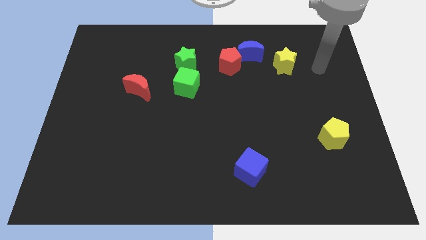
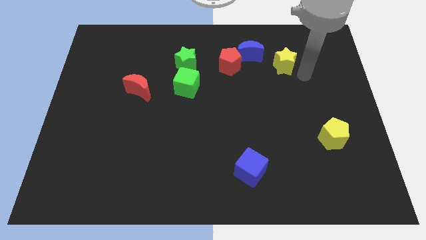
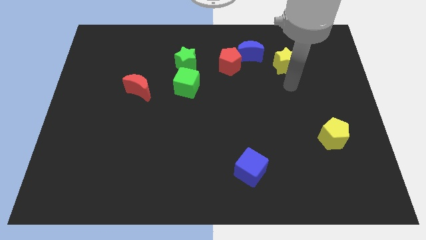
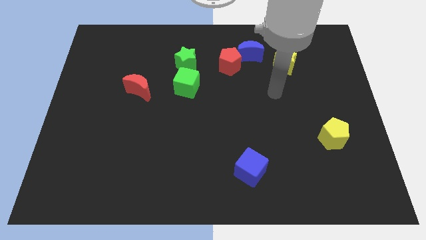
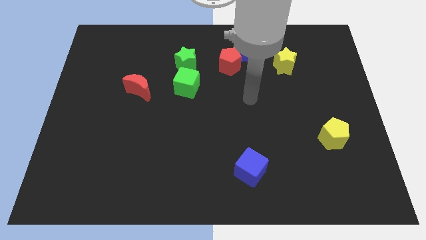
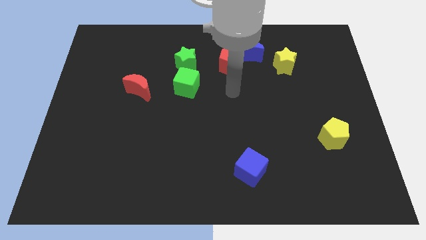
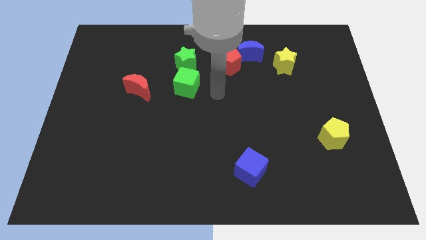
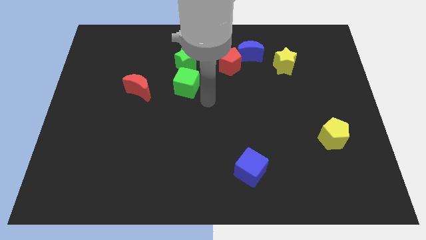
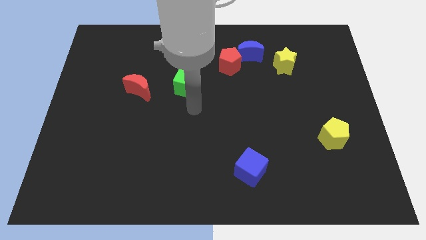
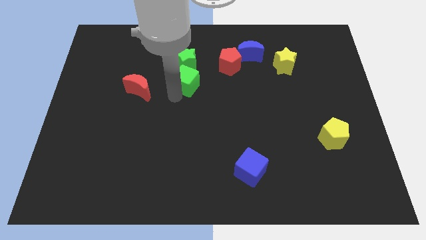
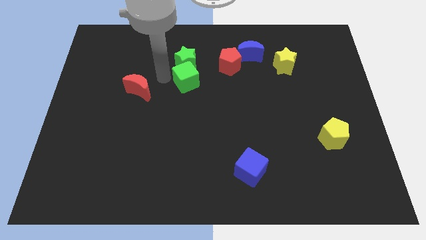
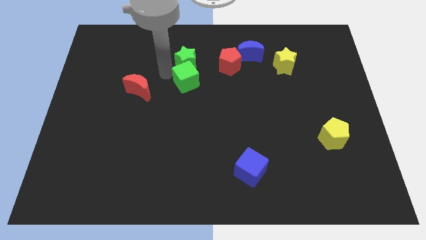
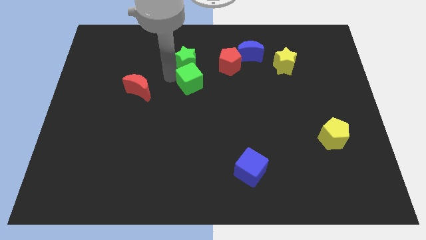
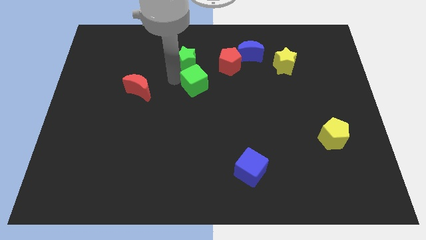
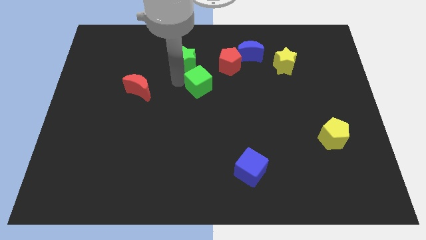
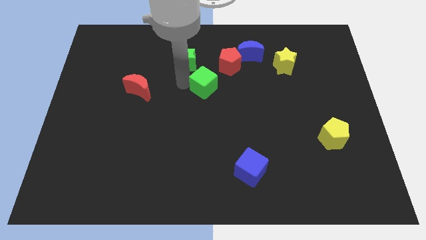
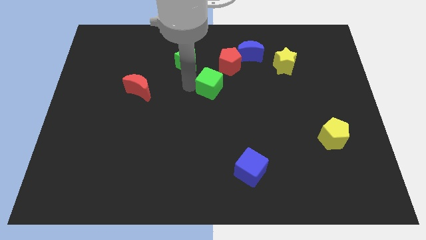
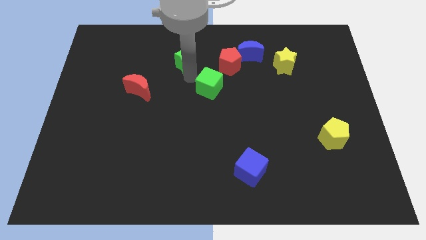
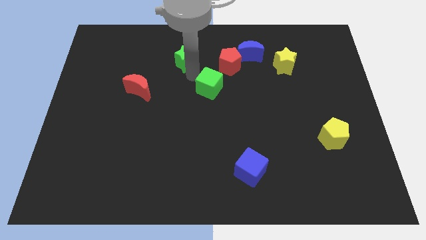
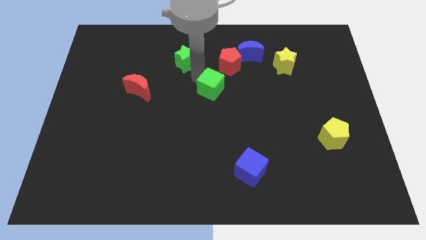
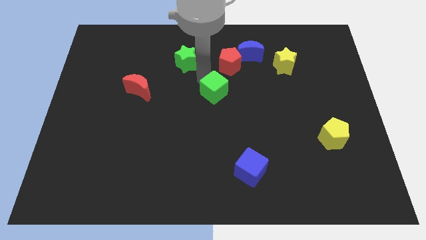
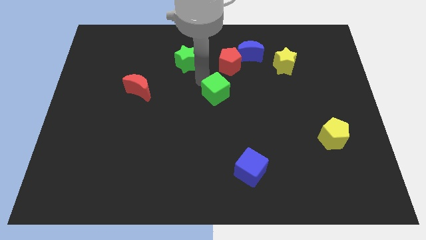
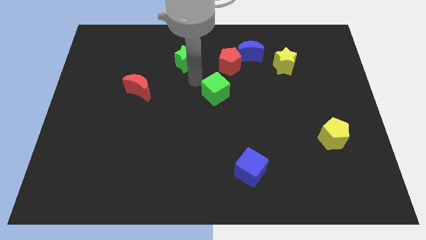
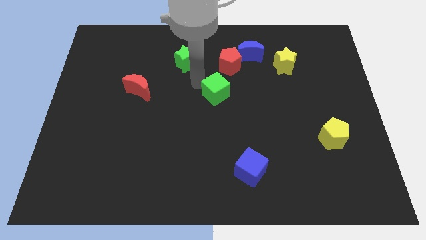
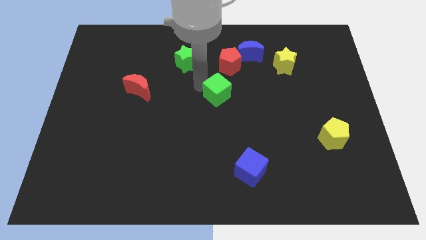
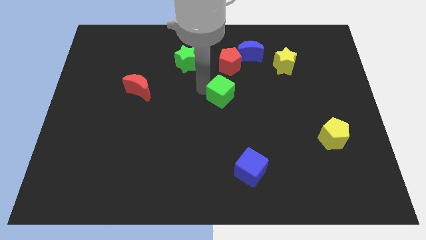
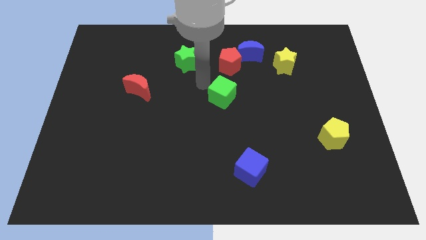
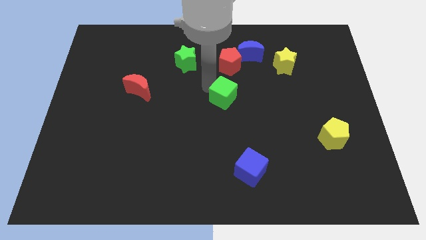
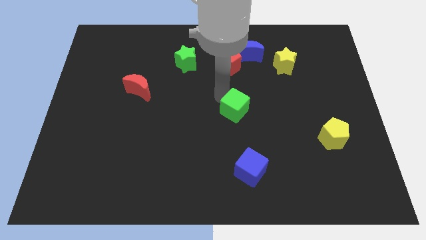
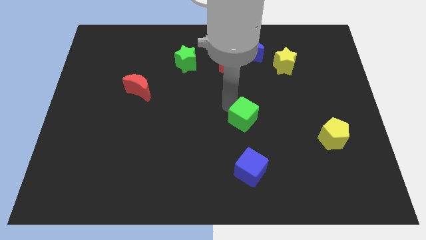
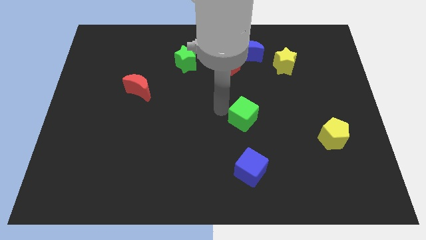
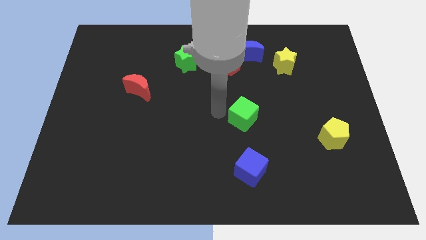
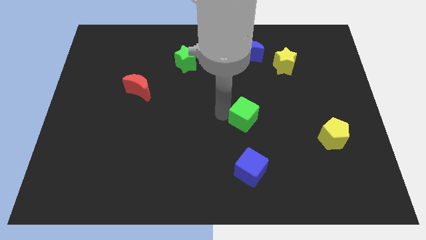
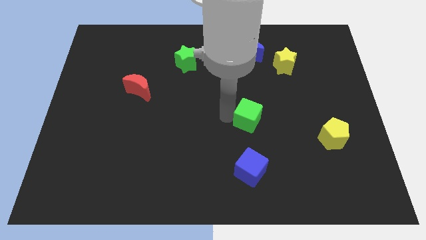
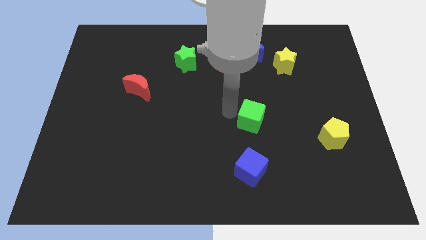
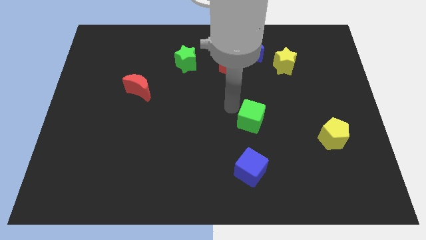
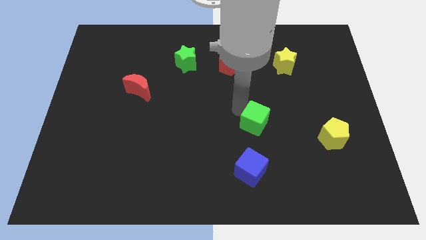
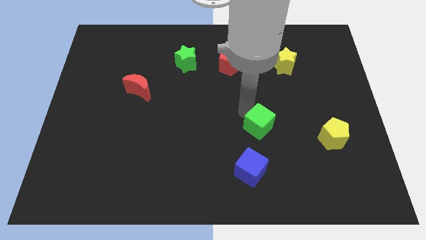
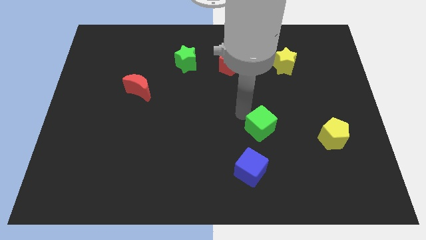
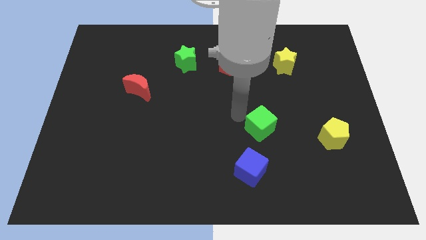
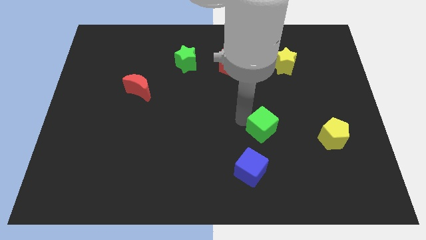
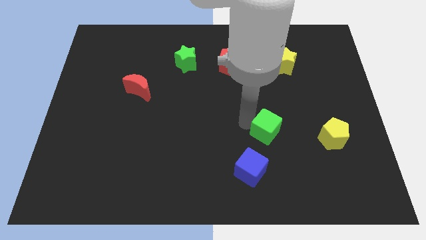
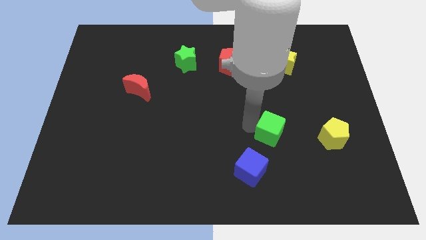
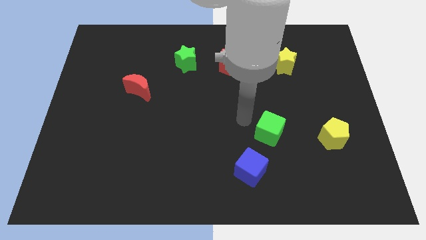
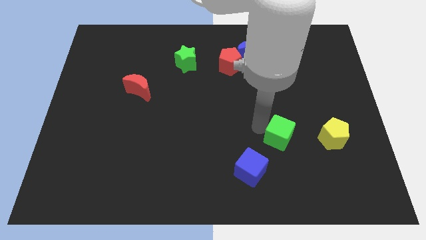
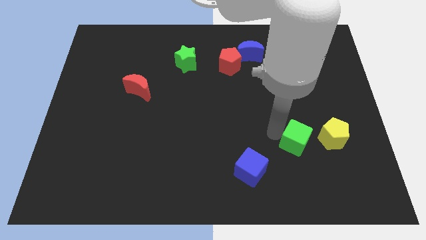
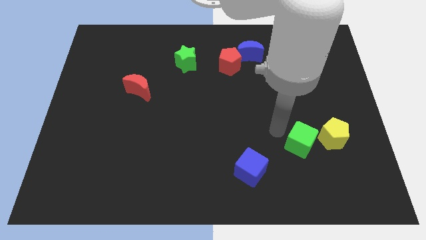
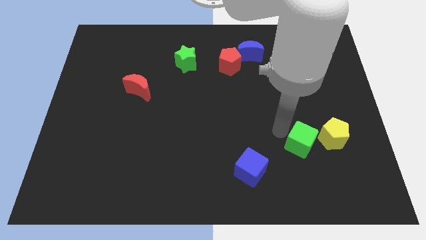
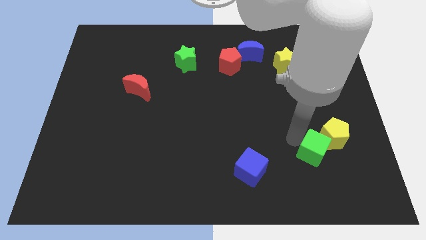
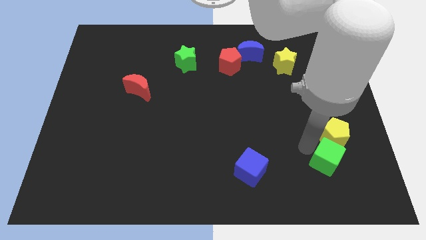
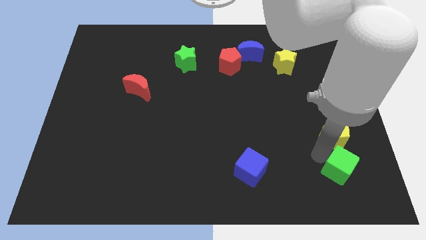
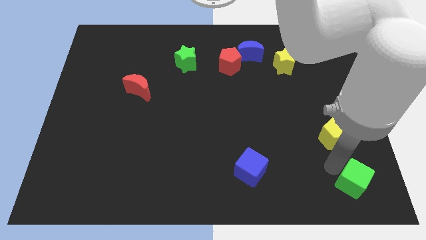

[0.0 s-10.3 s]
push the green cube to the lower right corner

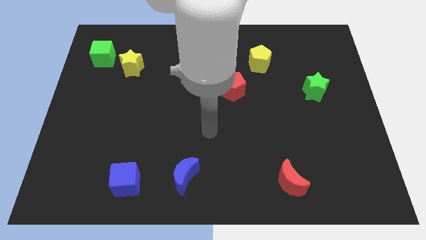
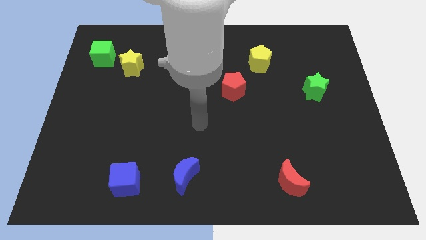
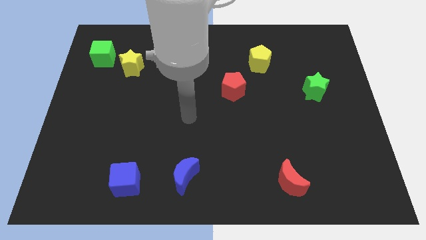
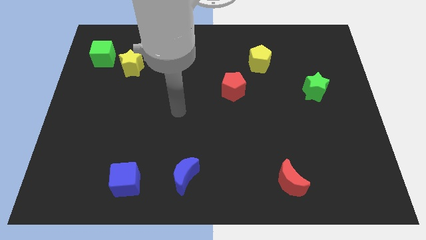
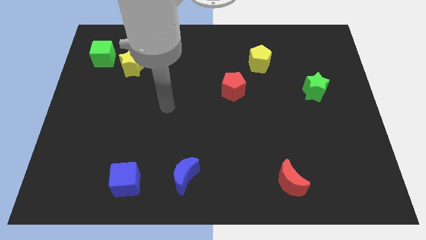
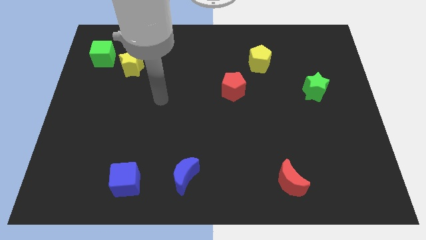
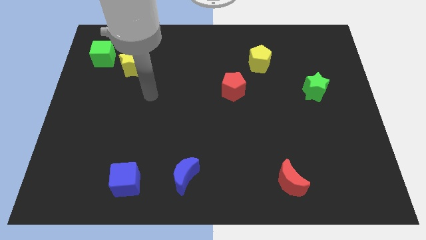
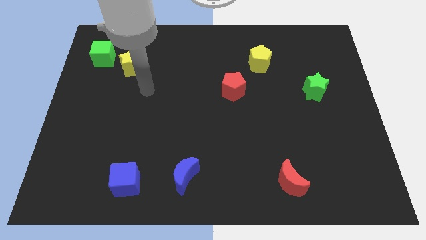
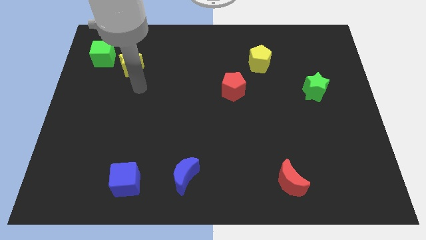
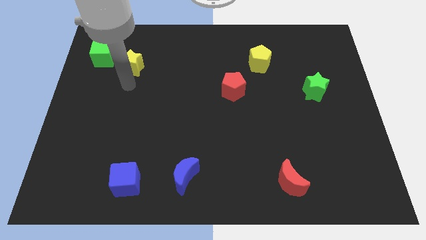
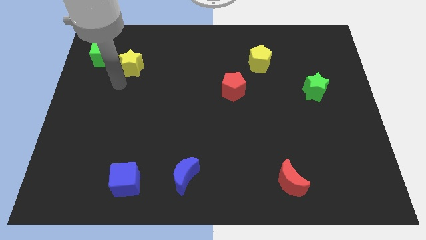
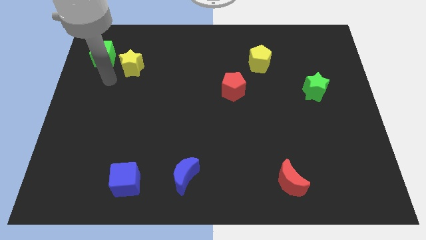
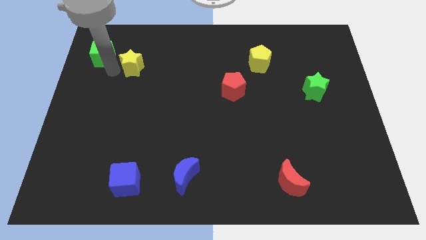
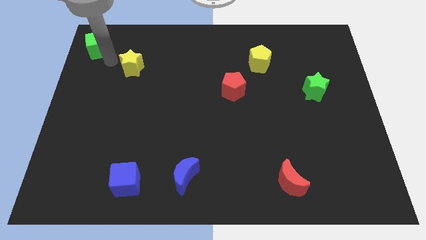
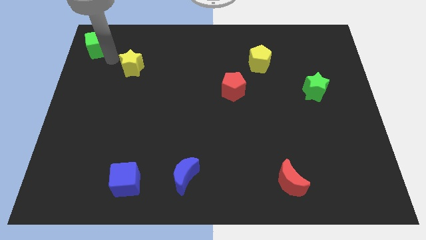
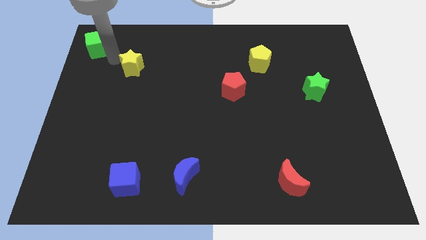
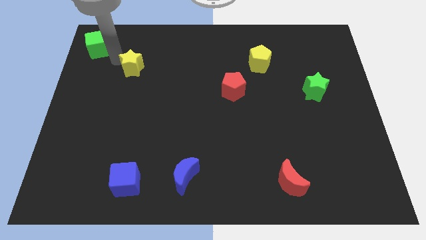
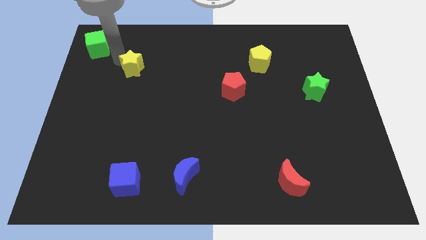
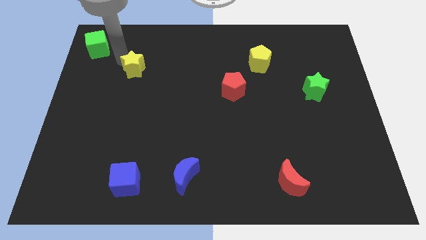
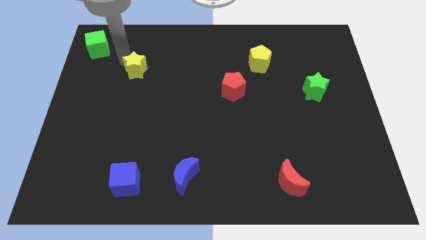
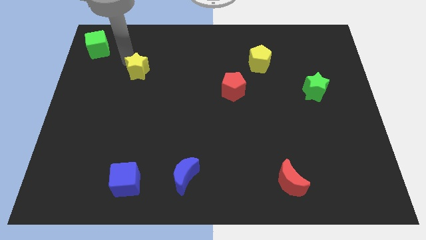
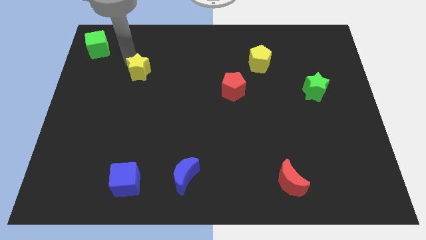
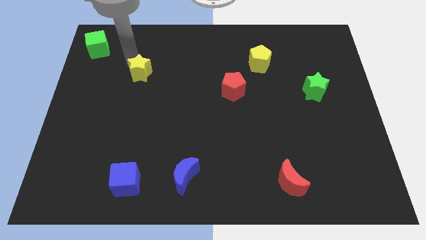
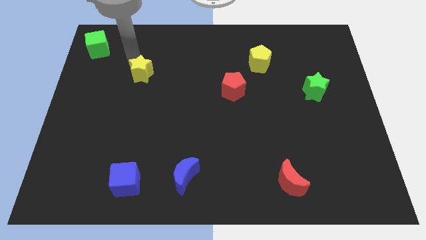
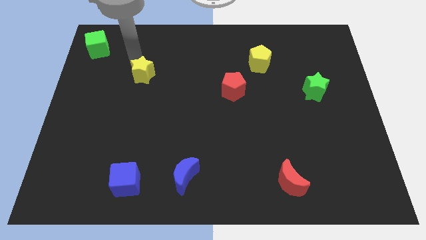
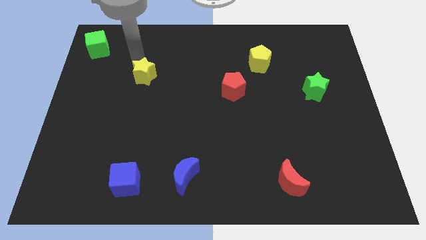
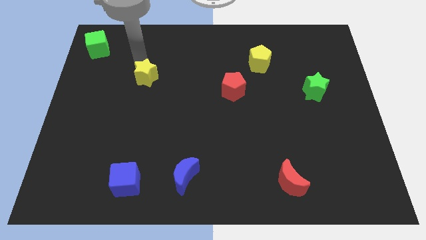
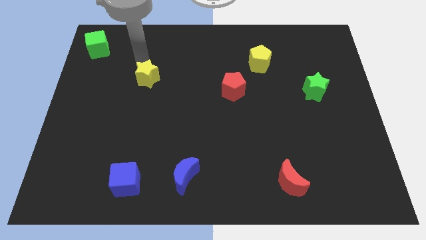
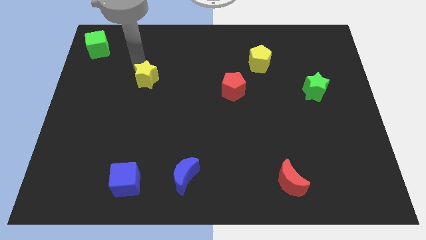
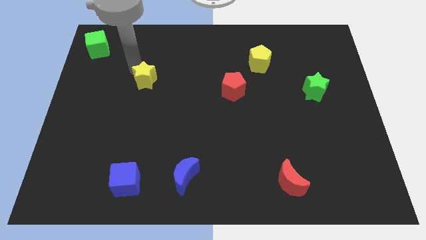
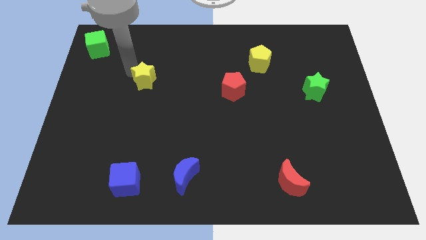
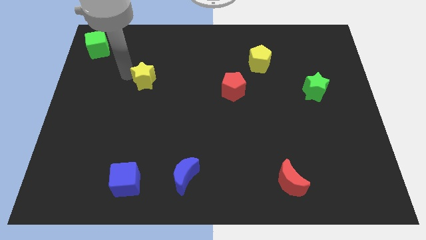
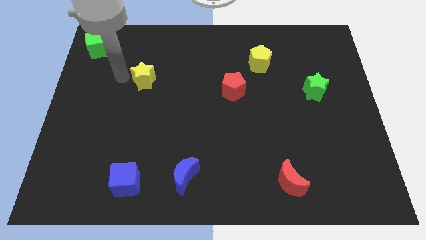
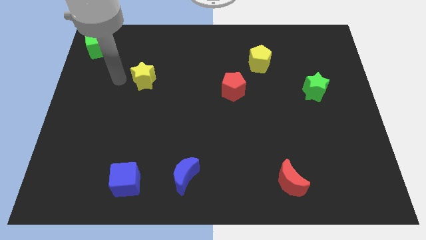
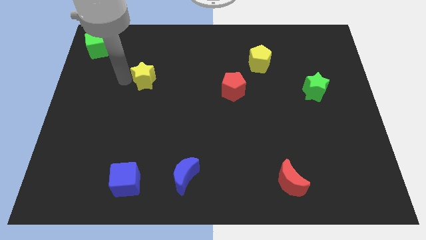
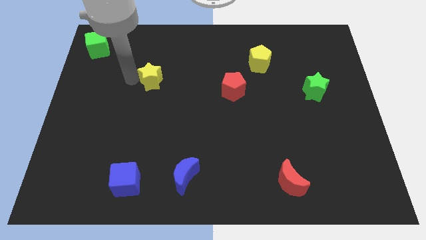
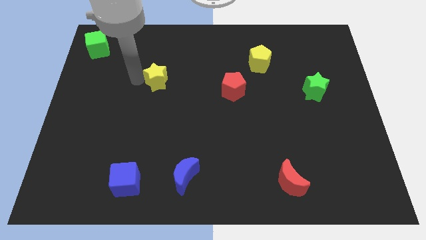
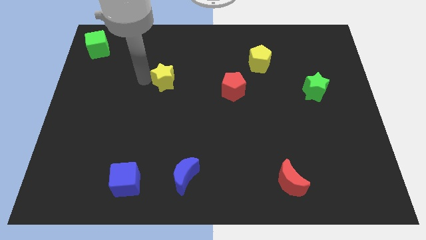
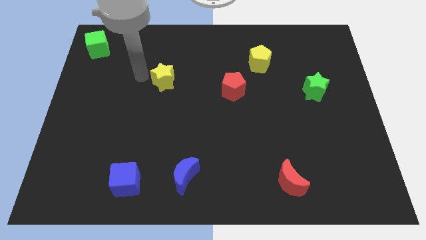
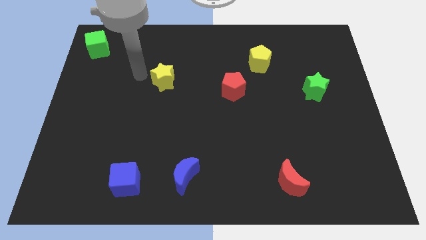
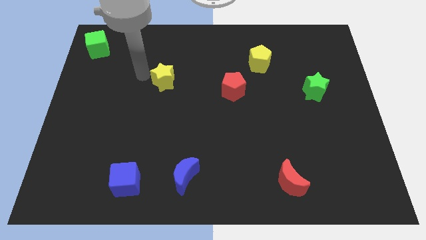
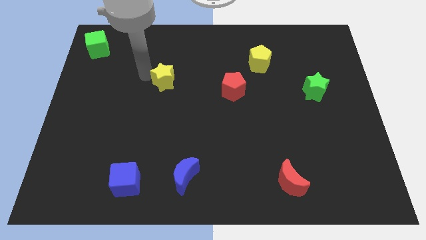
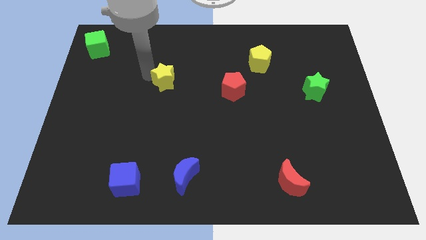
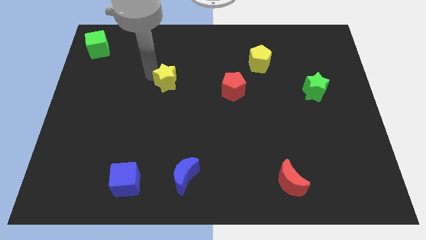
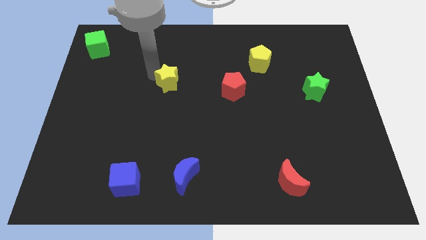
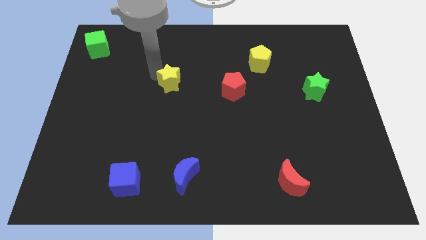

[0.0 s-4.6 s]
move the yellow star to the center
